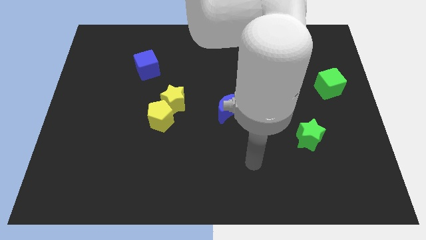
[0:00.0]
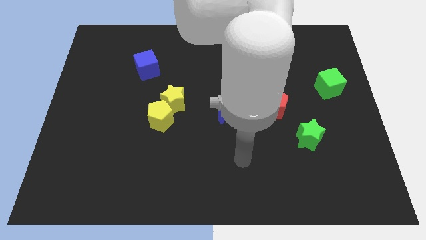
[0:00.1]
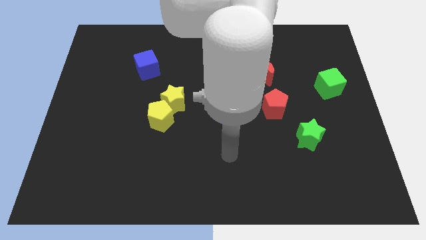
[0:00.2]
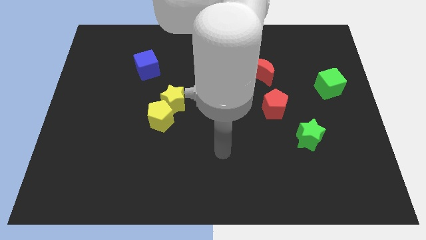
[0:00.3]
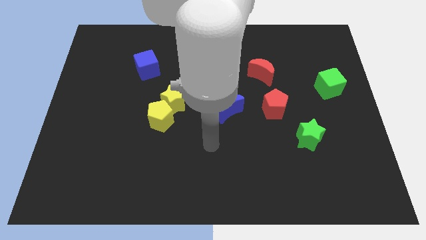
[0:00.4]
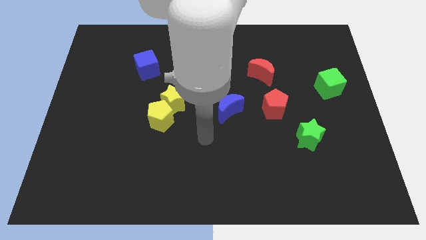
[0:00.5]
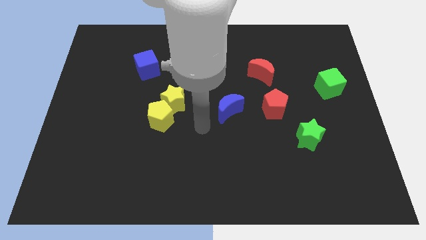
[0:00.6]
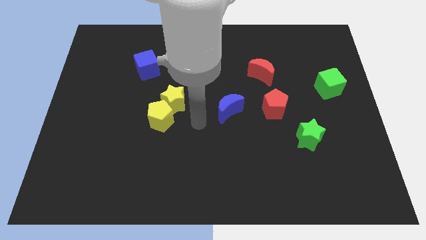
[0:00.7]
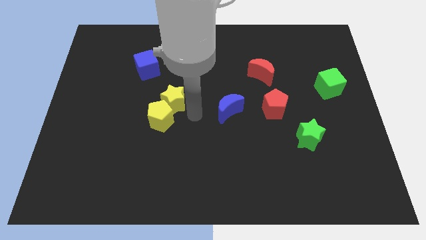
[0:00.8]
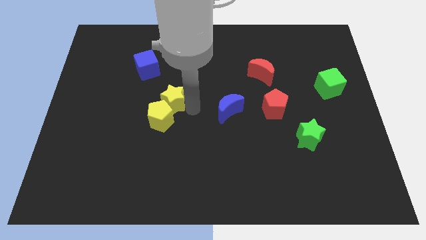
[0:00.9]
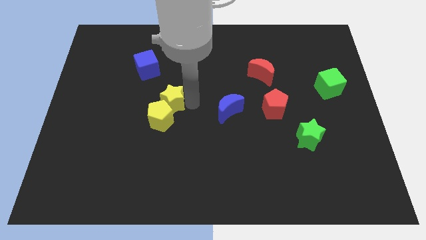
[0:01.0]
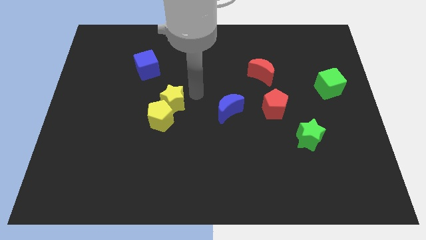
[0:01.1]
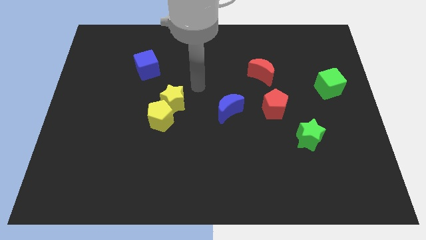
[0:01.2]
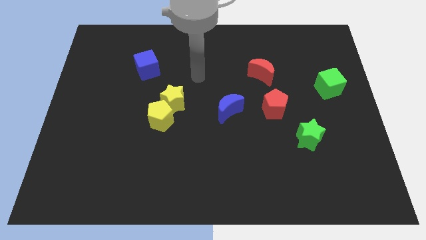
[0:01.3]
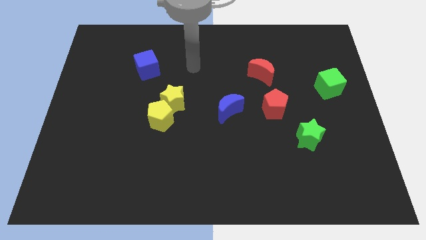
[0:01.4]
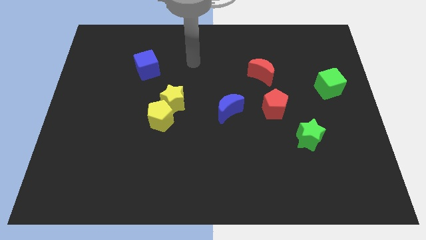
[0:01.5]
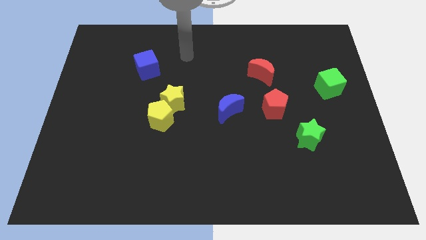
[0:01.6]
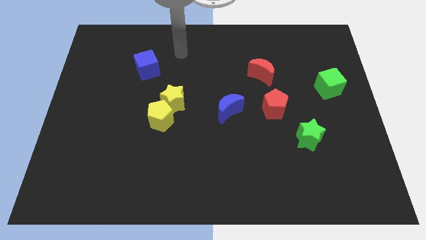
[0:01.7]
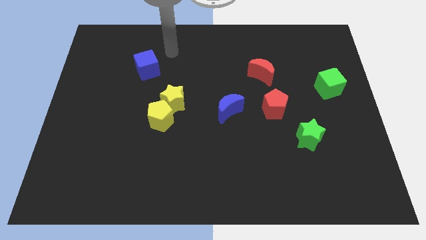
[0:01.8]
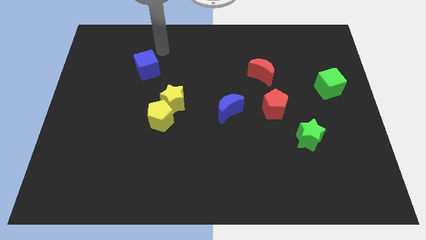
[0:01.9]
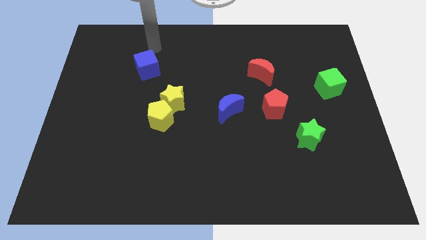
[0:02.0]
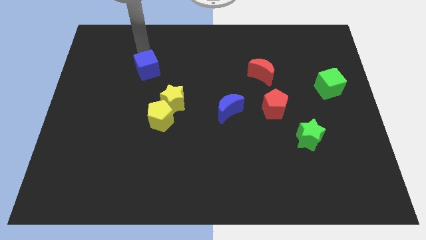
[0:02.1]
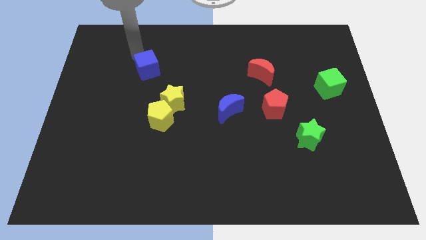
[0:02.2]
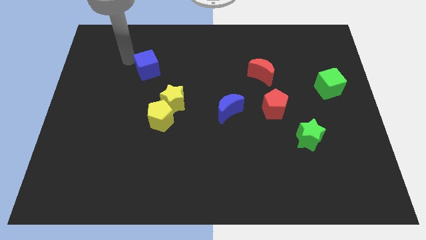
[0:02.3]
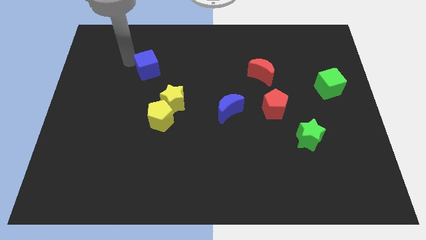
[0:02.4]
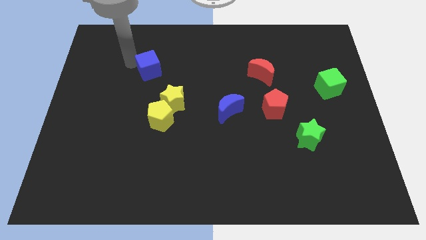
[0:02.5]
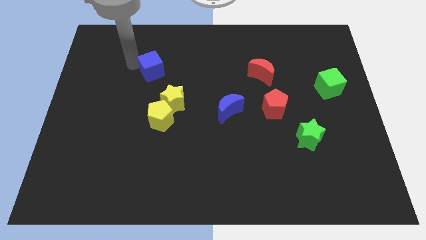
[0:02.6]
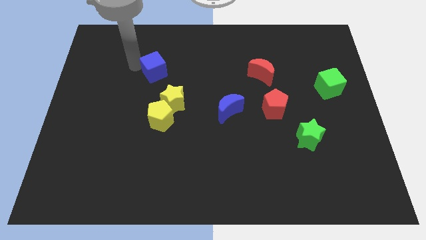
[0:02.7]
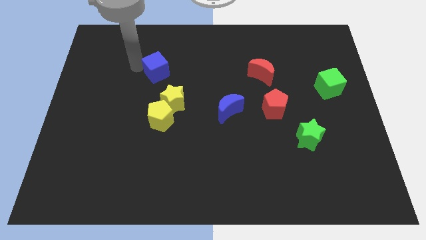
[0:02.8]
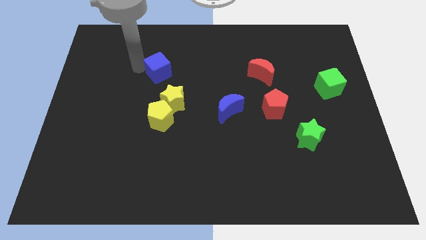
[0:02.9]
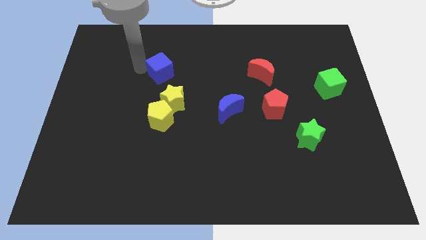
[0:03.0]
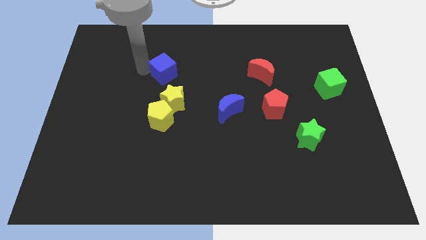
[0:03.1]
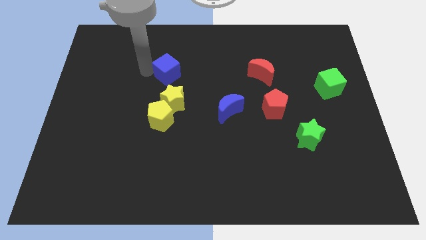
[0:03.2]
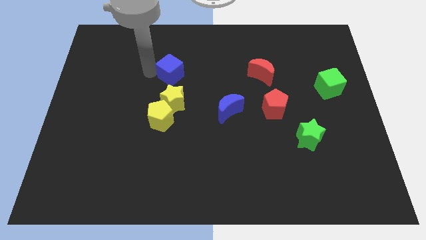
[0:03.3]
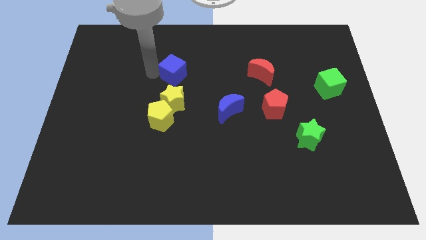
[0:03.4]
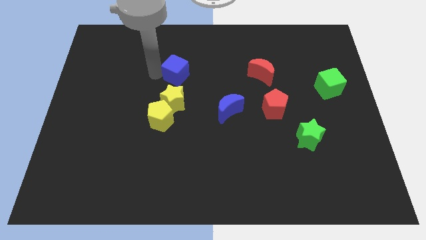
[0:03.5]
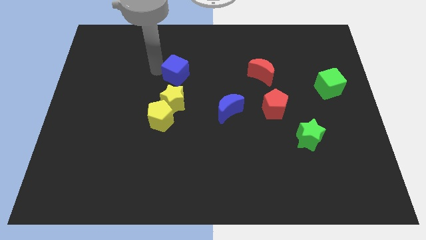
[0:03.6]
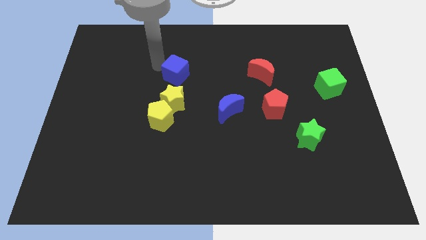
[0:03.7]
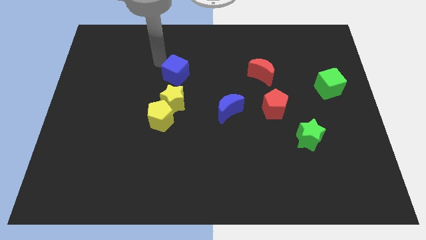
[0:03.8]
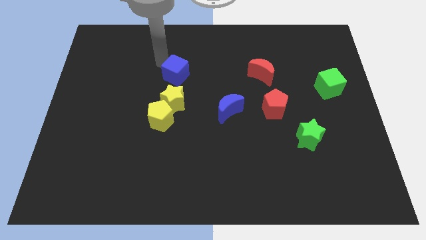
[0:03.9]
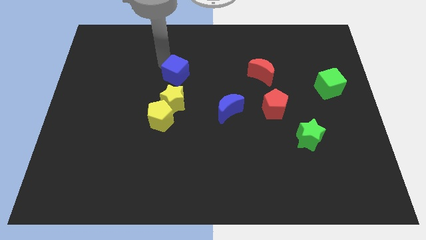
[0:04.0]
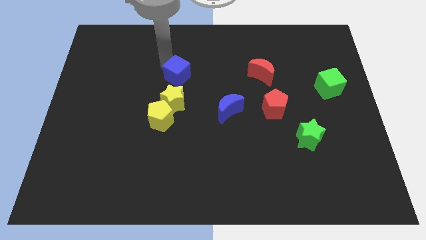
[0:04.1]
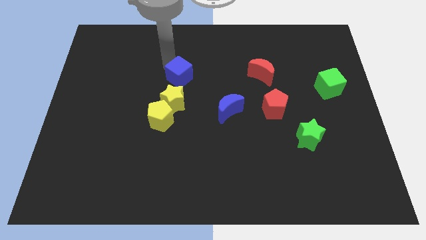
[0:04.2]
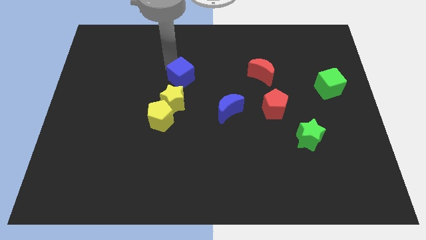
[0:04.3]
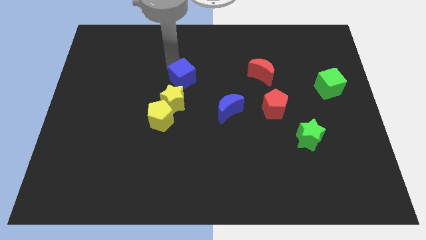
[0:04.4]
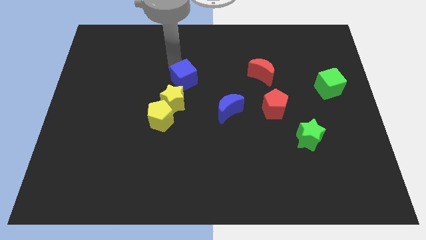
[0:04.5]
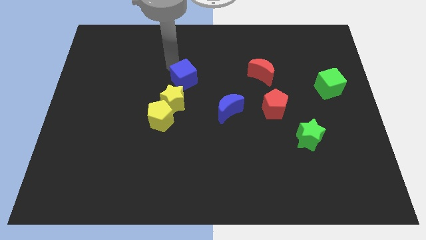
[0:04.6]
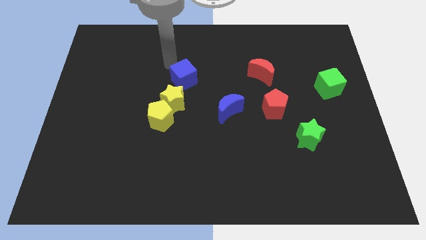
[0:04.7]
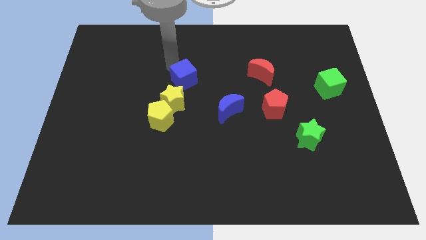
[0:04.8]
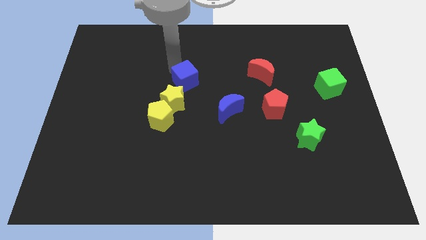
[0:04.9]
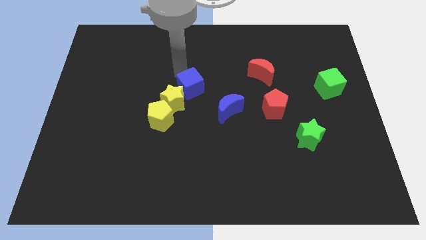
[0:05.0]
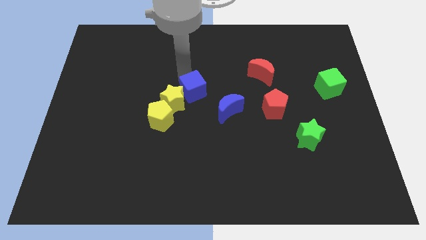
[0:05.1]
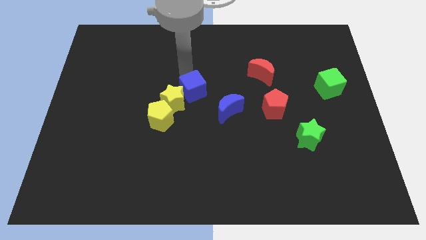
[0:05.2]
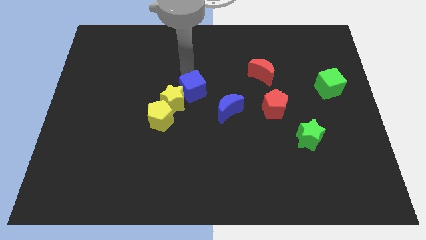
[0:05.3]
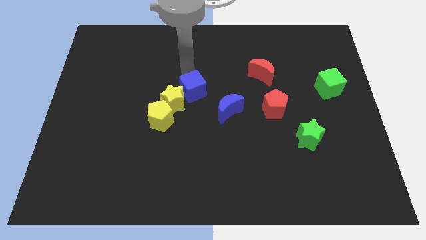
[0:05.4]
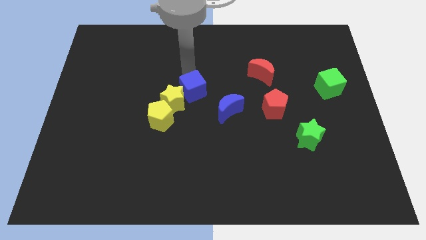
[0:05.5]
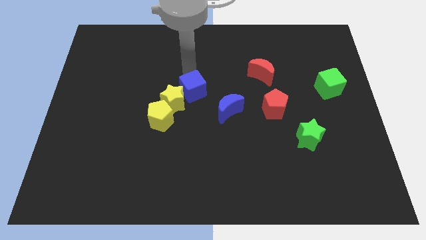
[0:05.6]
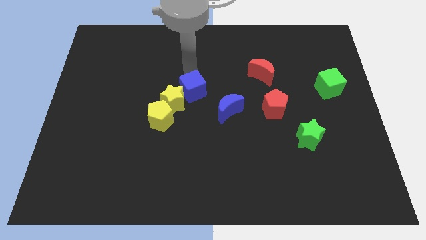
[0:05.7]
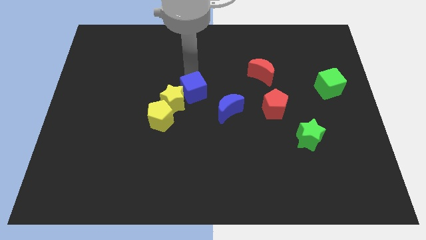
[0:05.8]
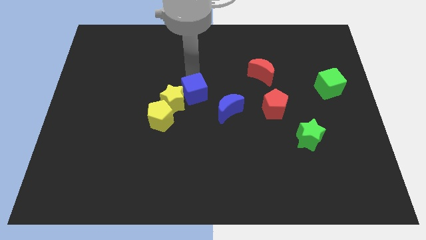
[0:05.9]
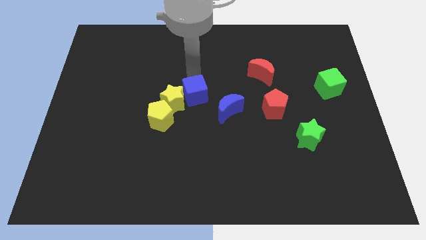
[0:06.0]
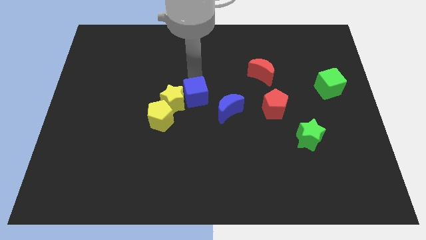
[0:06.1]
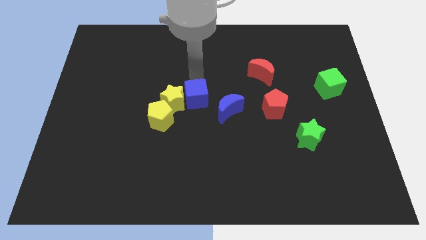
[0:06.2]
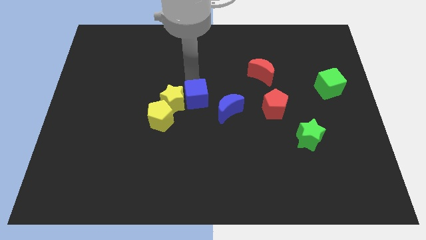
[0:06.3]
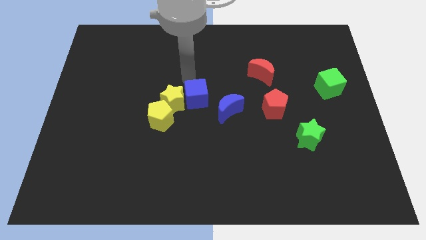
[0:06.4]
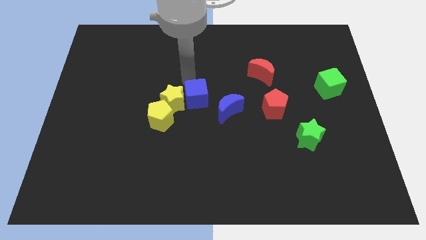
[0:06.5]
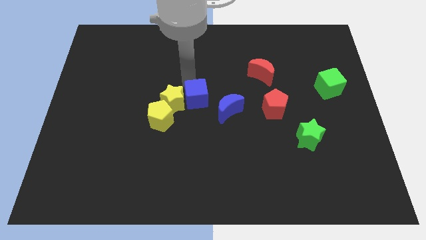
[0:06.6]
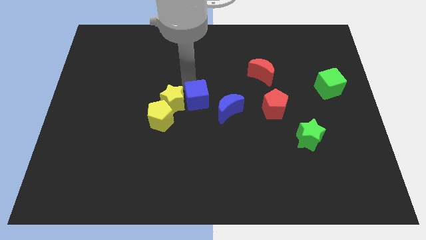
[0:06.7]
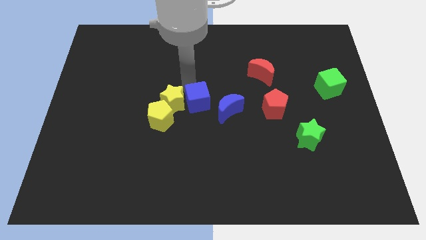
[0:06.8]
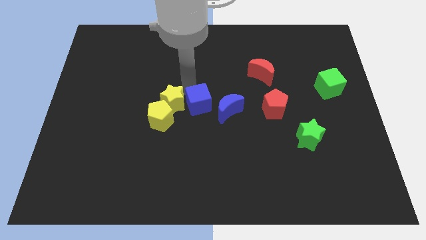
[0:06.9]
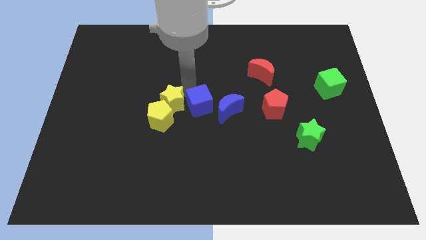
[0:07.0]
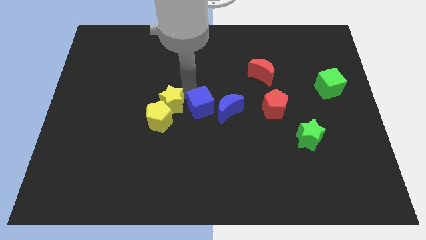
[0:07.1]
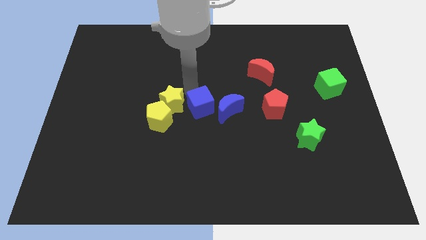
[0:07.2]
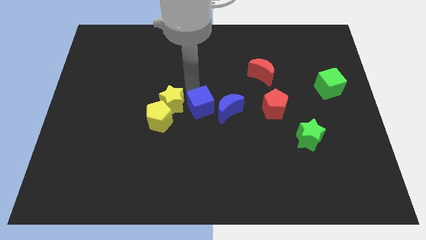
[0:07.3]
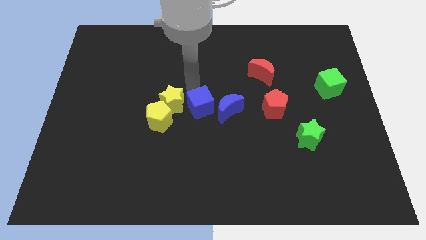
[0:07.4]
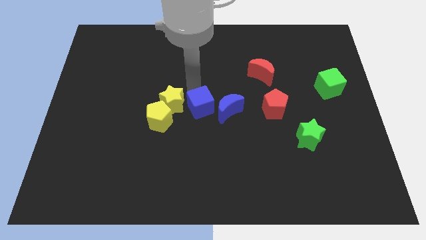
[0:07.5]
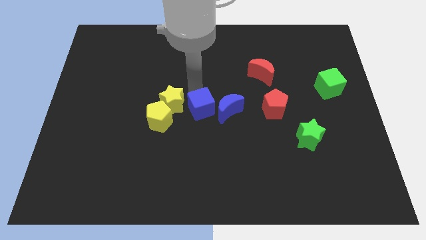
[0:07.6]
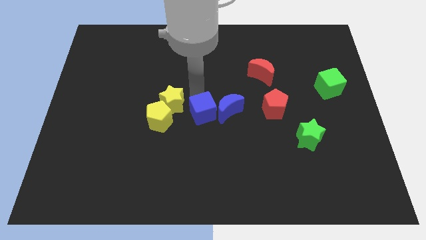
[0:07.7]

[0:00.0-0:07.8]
move the blue cube diagonally downwards and right

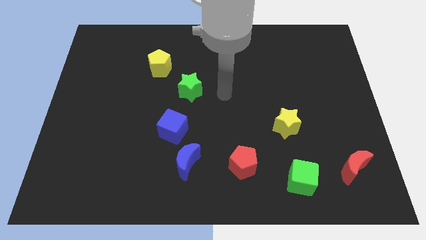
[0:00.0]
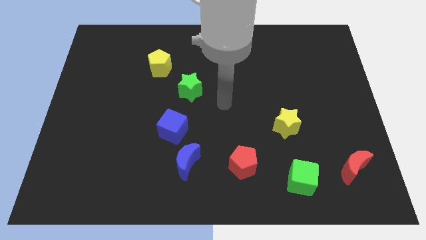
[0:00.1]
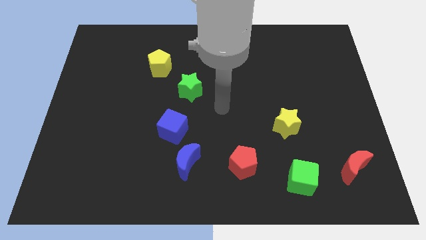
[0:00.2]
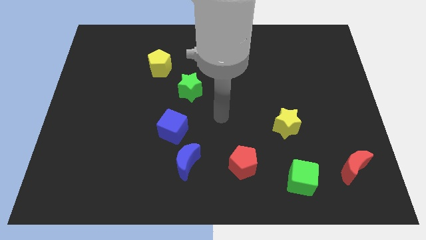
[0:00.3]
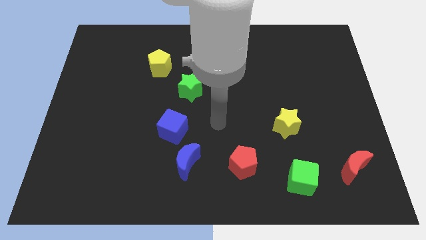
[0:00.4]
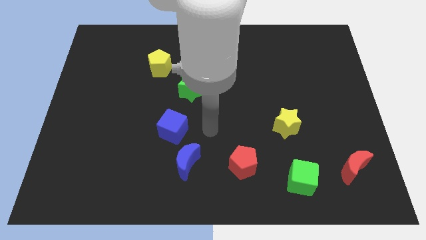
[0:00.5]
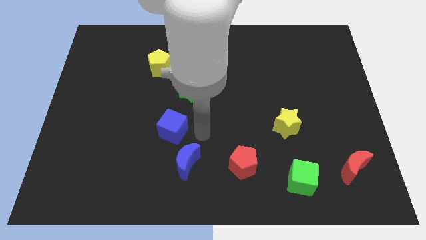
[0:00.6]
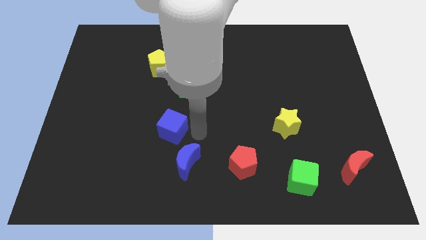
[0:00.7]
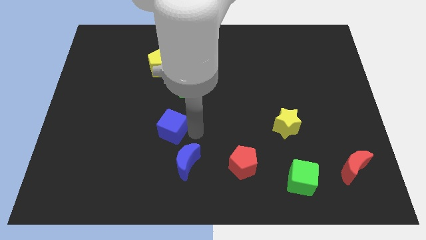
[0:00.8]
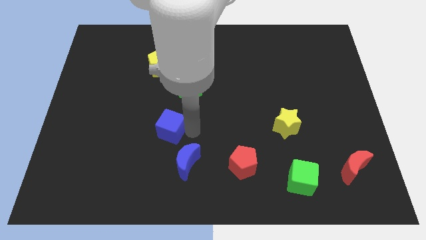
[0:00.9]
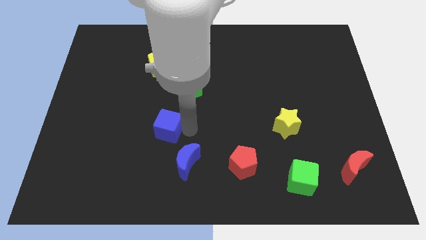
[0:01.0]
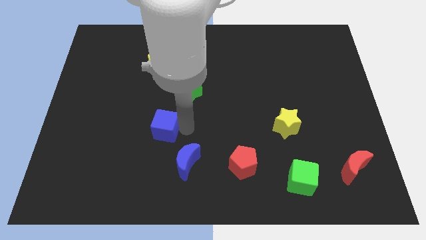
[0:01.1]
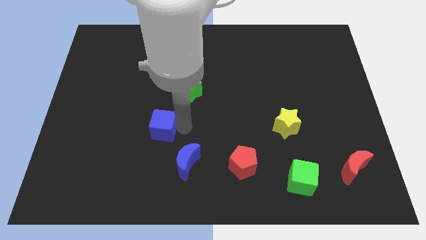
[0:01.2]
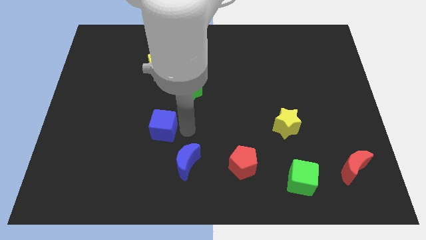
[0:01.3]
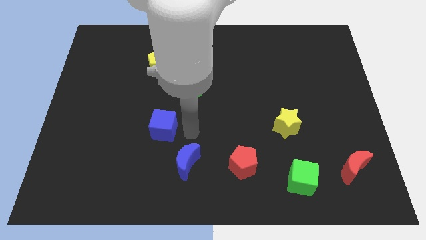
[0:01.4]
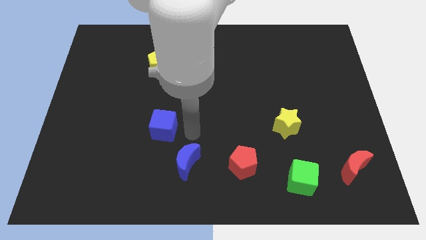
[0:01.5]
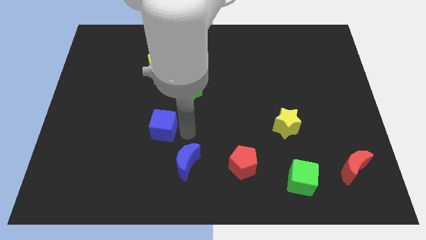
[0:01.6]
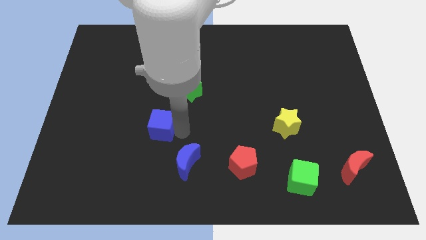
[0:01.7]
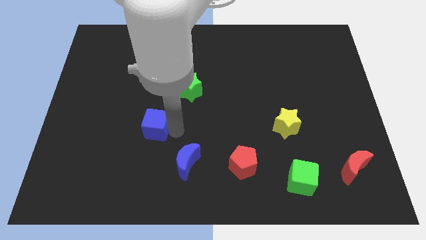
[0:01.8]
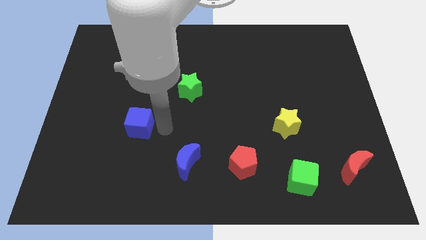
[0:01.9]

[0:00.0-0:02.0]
slide the blue cube a little bit to the left
